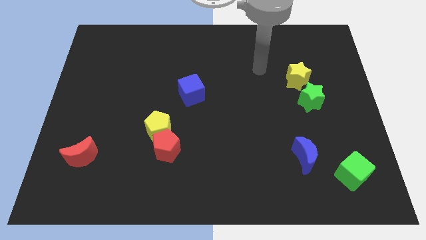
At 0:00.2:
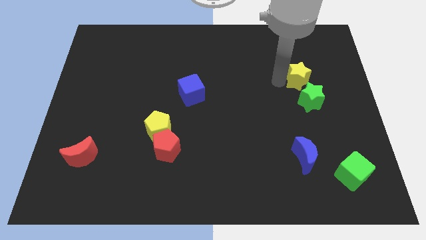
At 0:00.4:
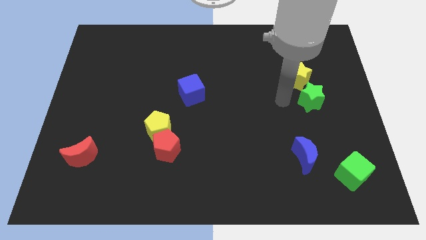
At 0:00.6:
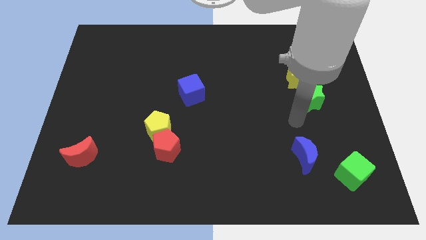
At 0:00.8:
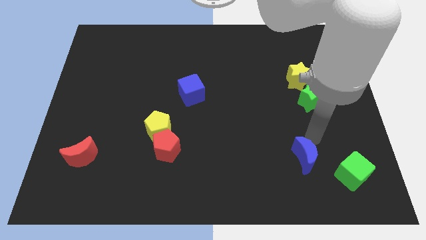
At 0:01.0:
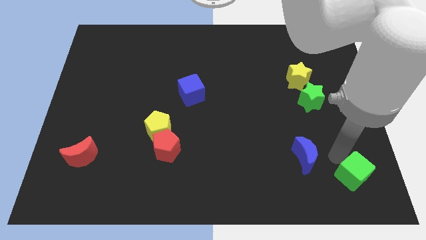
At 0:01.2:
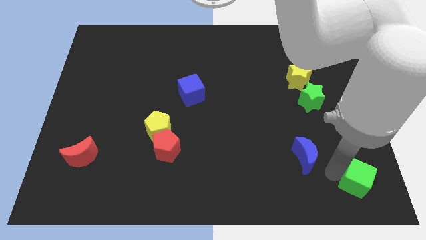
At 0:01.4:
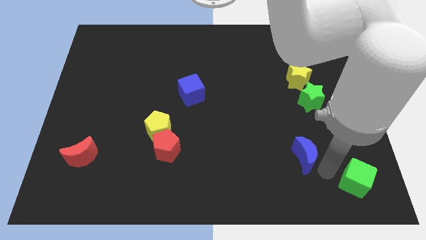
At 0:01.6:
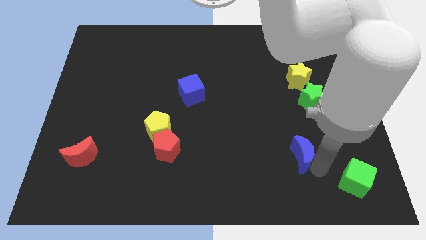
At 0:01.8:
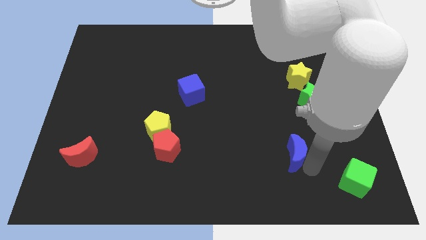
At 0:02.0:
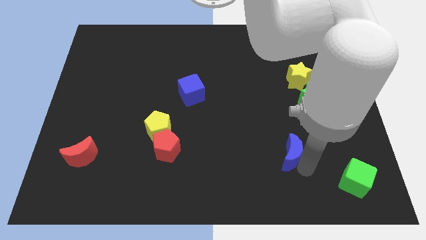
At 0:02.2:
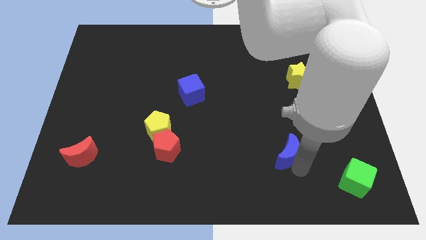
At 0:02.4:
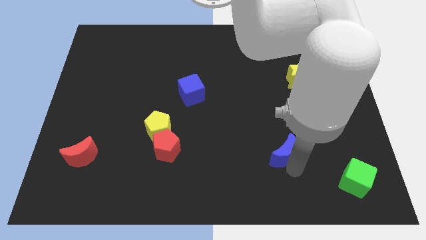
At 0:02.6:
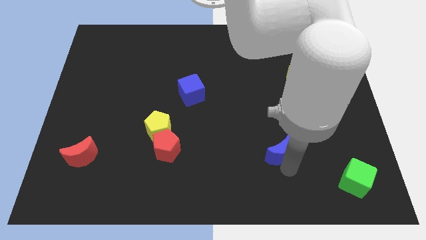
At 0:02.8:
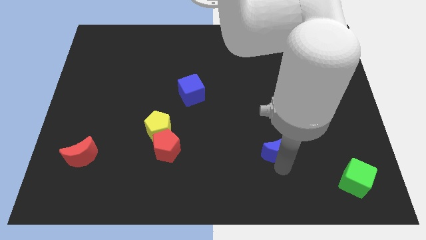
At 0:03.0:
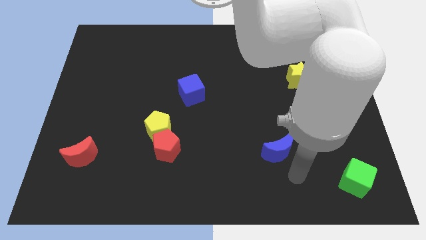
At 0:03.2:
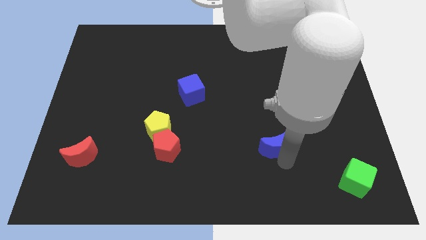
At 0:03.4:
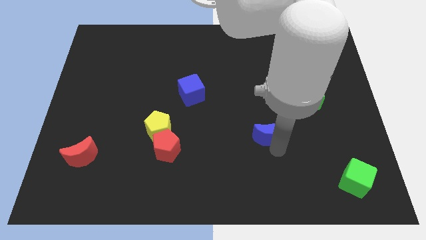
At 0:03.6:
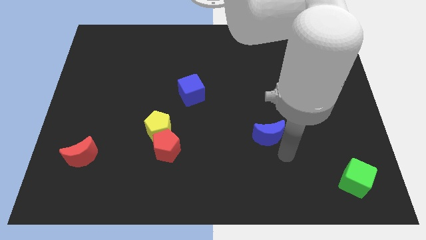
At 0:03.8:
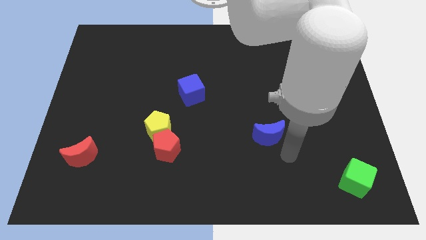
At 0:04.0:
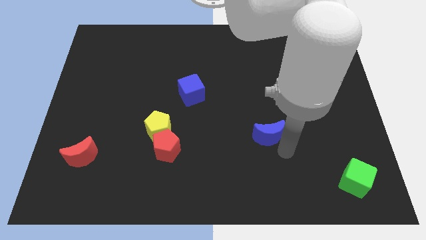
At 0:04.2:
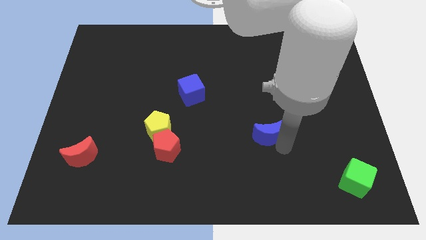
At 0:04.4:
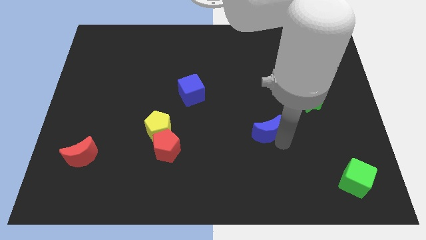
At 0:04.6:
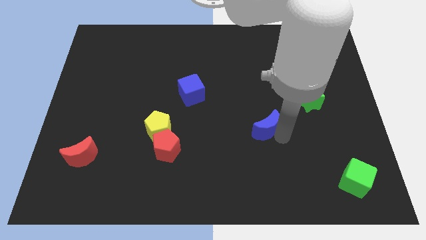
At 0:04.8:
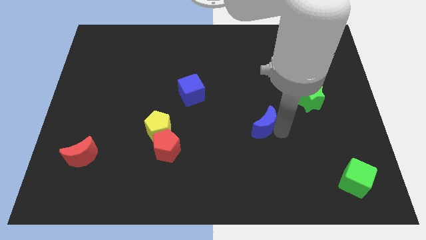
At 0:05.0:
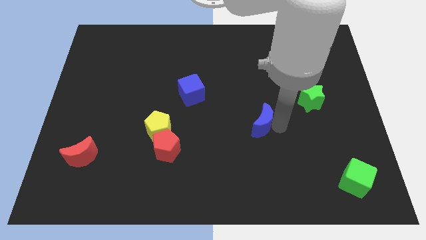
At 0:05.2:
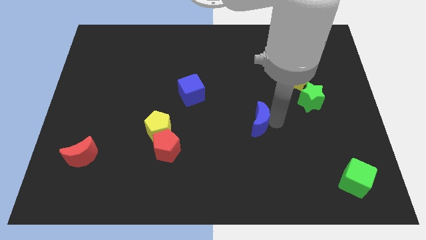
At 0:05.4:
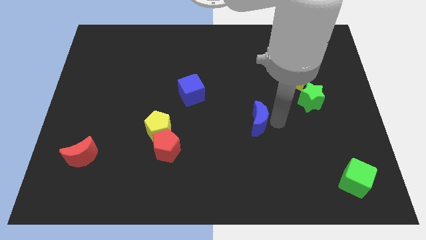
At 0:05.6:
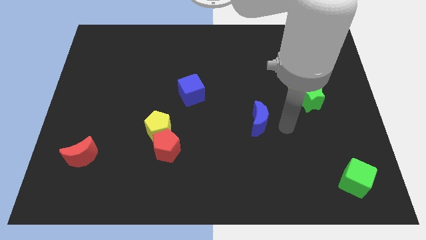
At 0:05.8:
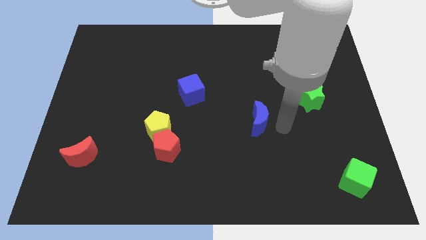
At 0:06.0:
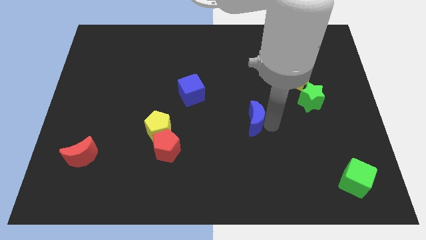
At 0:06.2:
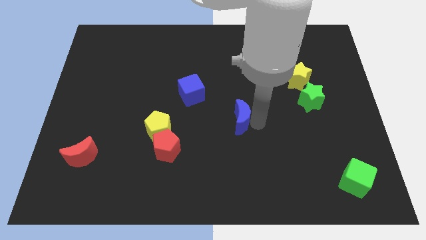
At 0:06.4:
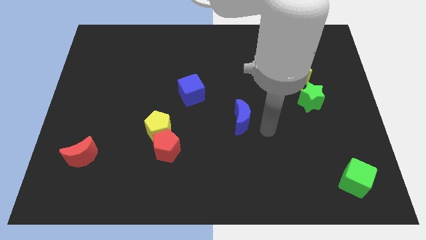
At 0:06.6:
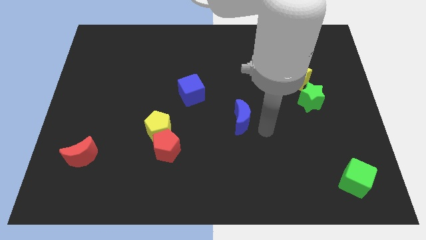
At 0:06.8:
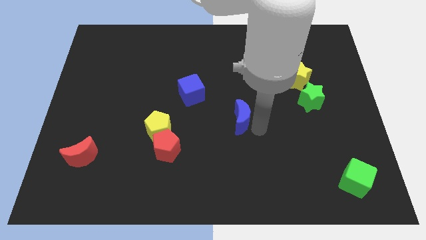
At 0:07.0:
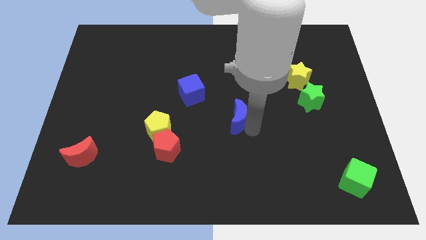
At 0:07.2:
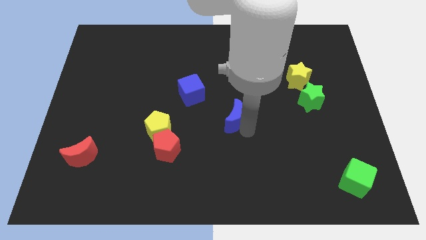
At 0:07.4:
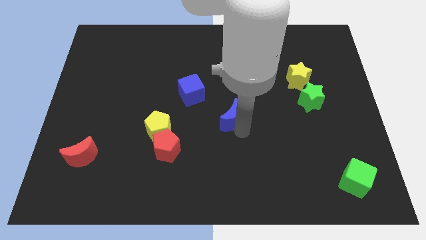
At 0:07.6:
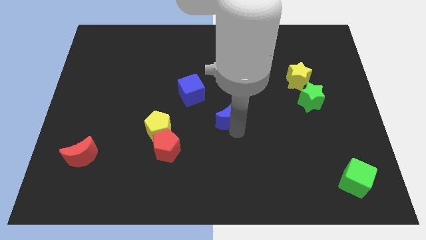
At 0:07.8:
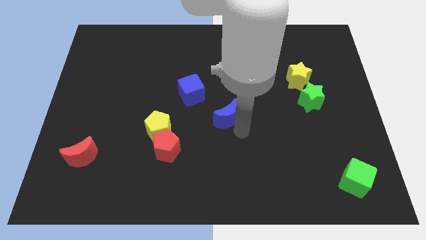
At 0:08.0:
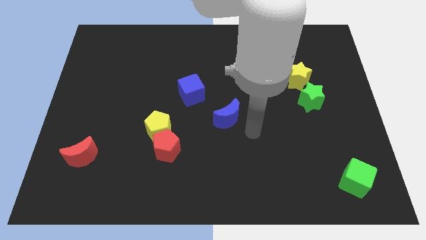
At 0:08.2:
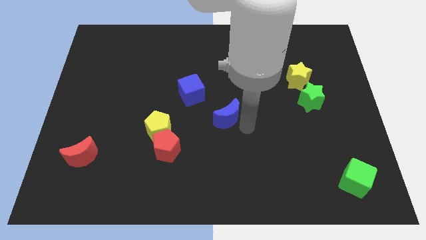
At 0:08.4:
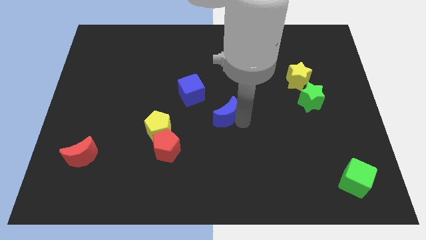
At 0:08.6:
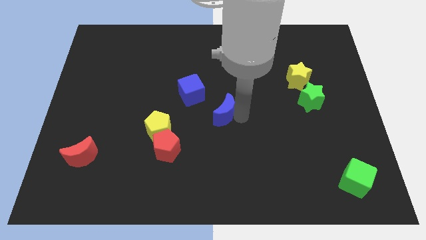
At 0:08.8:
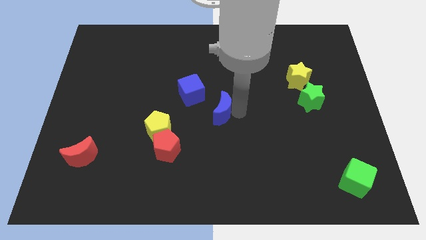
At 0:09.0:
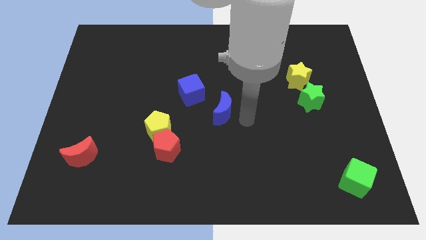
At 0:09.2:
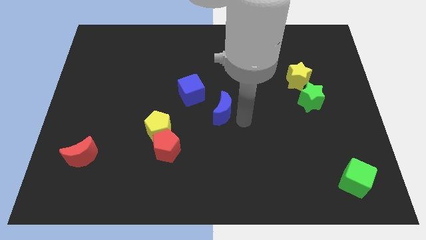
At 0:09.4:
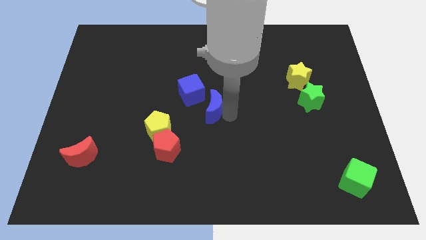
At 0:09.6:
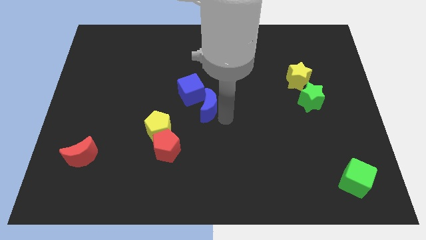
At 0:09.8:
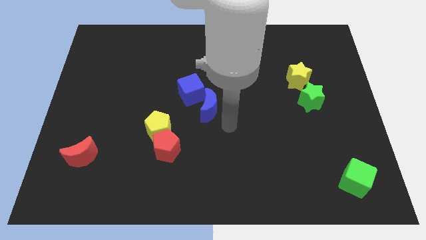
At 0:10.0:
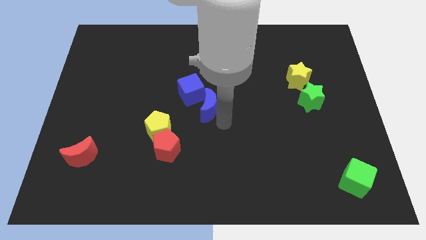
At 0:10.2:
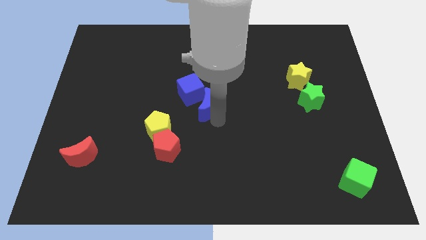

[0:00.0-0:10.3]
put the blue moon next to the blue cube

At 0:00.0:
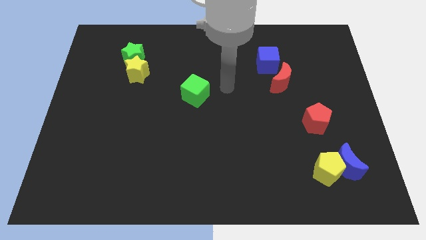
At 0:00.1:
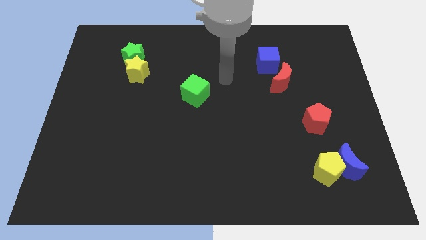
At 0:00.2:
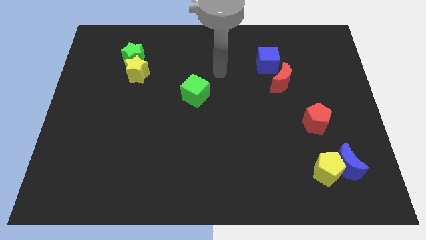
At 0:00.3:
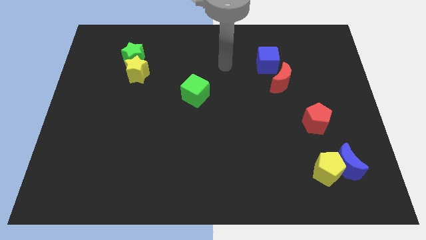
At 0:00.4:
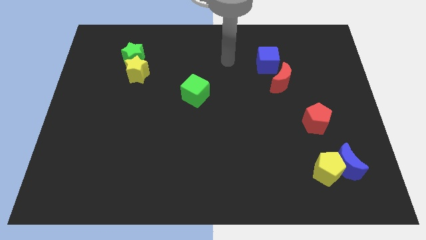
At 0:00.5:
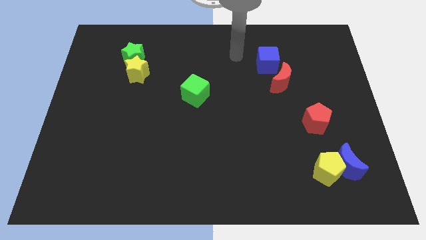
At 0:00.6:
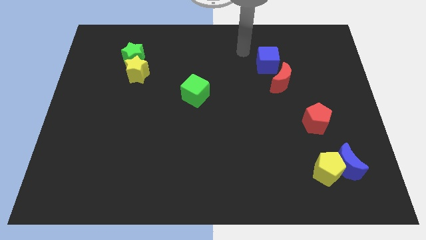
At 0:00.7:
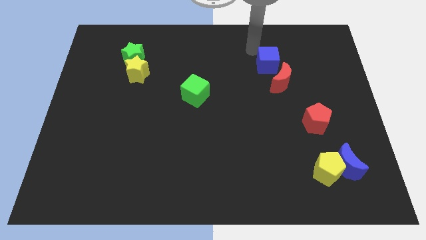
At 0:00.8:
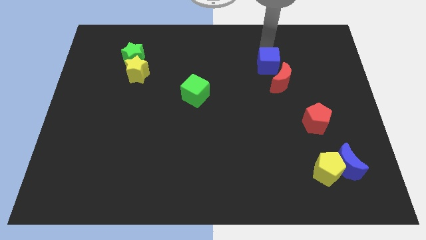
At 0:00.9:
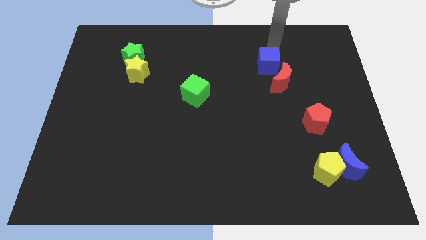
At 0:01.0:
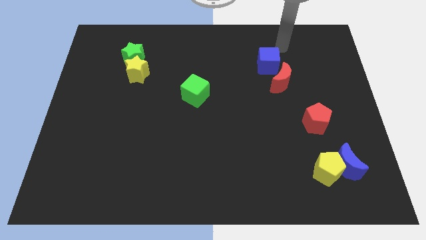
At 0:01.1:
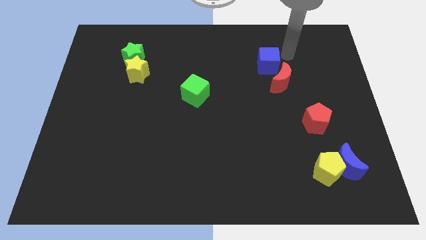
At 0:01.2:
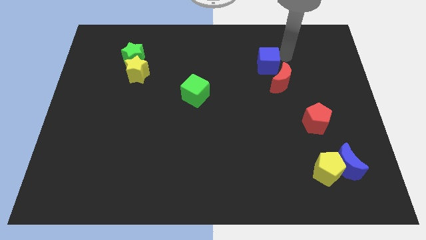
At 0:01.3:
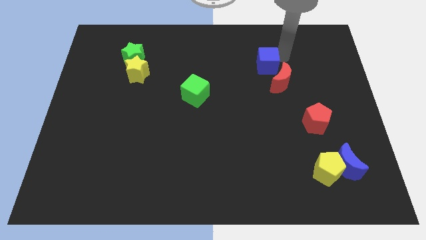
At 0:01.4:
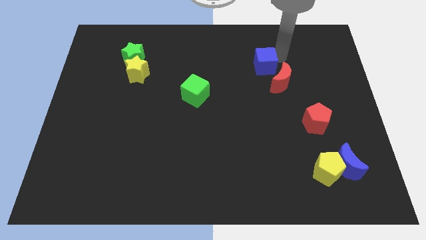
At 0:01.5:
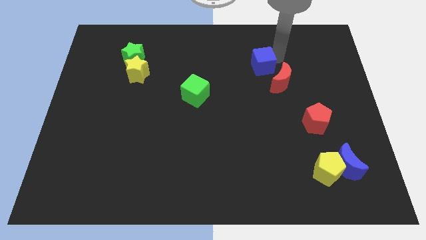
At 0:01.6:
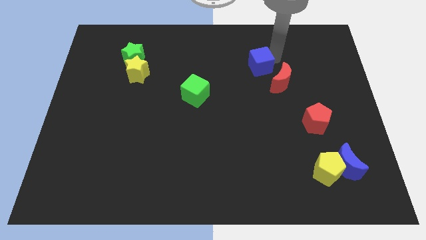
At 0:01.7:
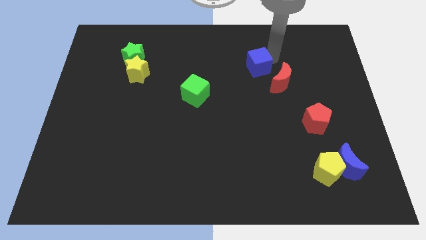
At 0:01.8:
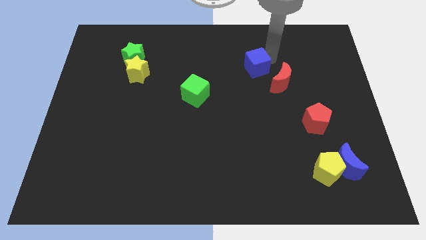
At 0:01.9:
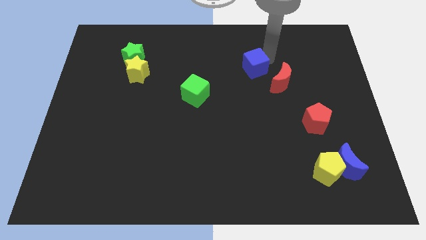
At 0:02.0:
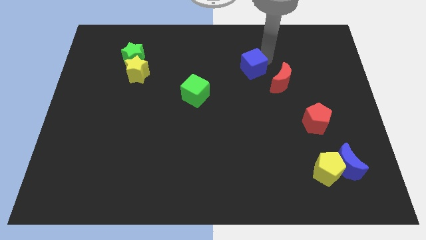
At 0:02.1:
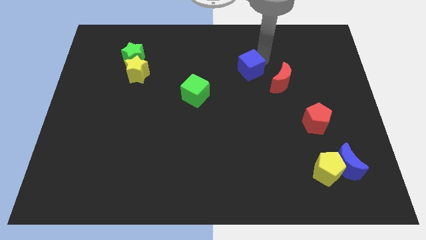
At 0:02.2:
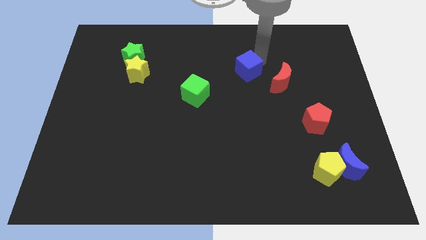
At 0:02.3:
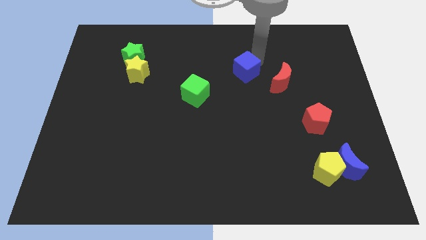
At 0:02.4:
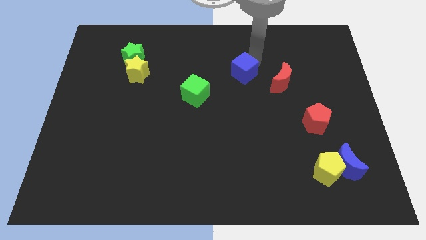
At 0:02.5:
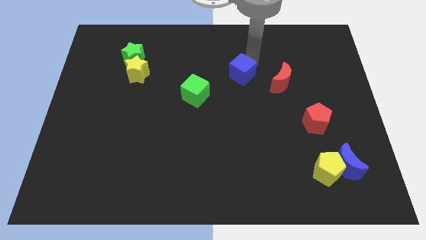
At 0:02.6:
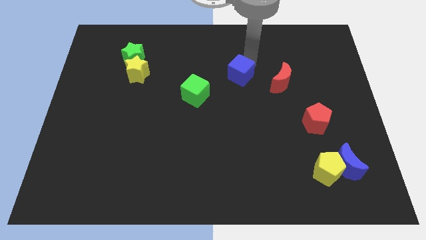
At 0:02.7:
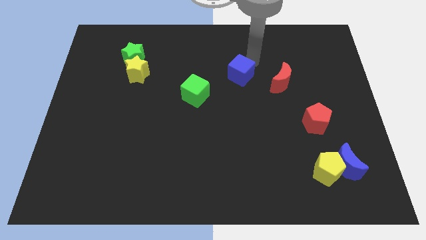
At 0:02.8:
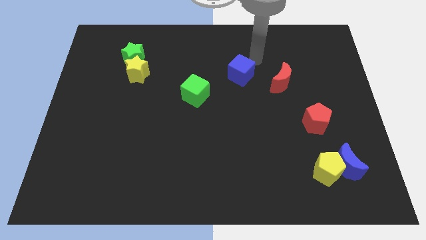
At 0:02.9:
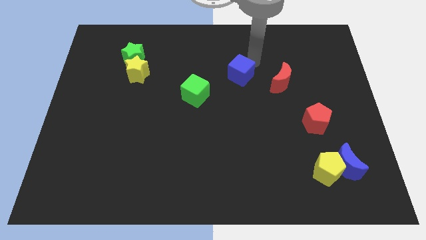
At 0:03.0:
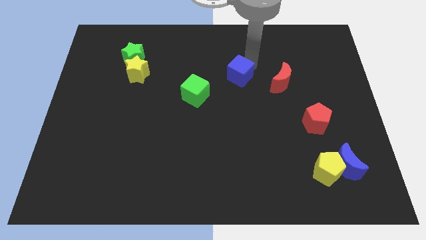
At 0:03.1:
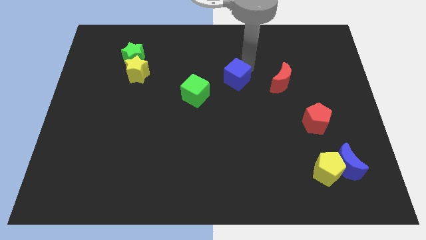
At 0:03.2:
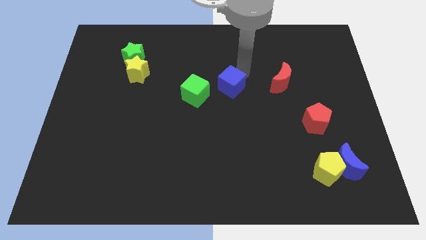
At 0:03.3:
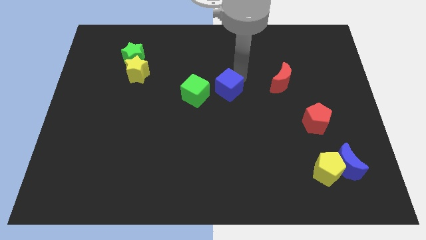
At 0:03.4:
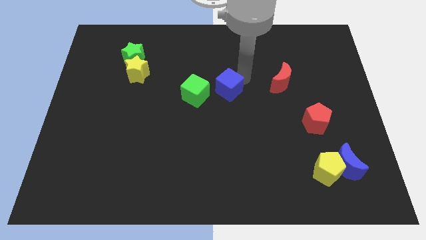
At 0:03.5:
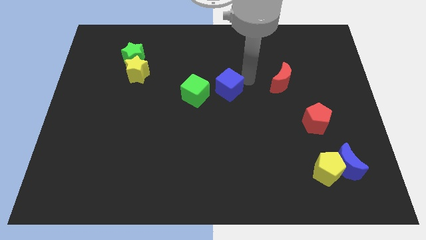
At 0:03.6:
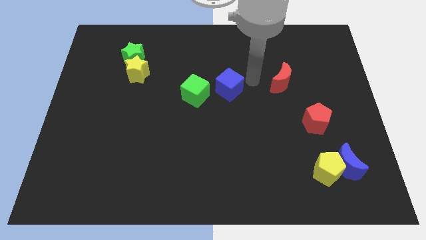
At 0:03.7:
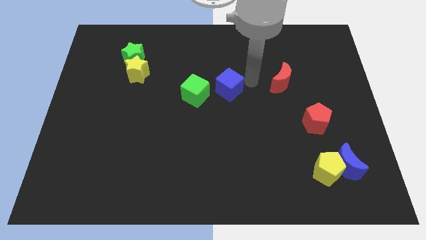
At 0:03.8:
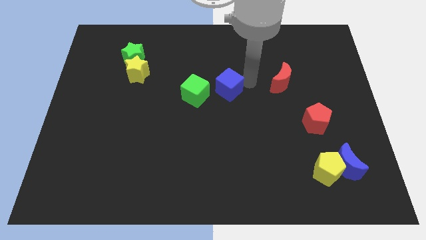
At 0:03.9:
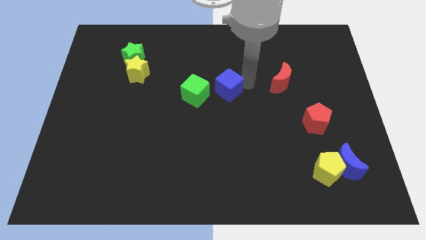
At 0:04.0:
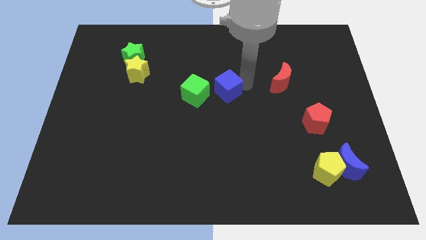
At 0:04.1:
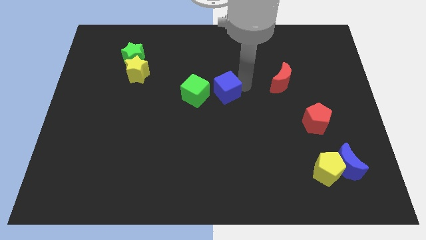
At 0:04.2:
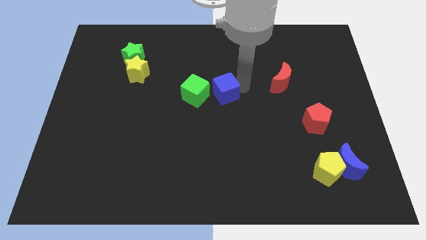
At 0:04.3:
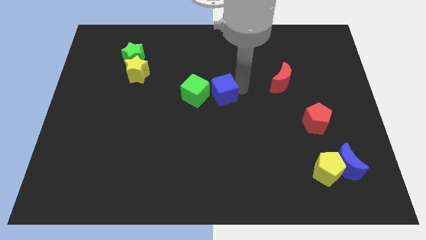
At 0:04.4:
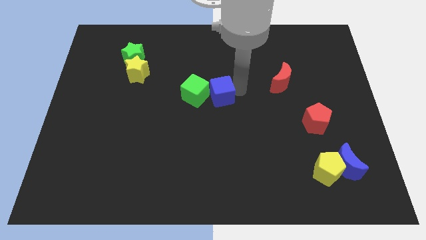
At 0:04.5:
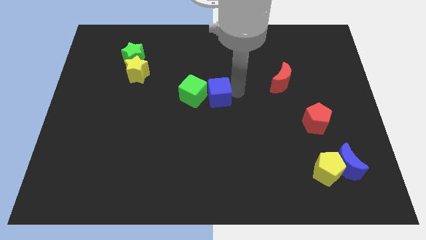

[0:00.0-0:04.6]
move the blue cube towards the green cube
